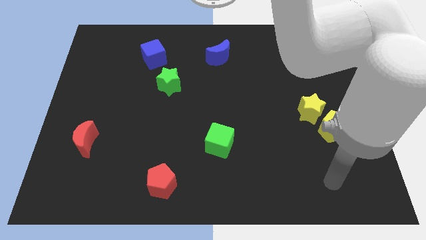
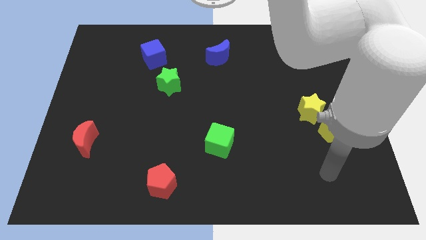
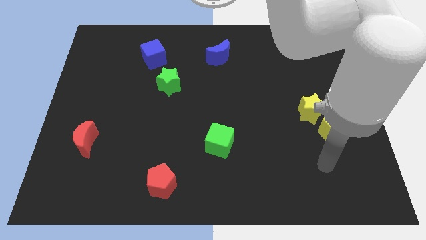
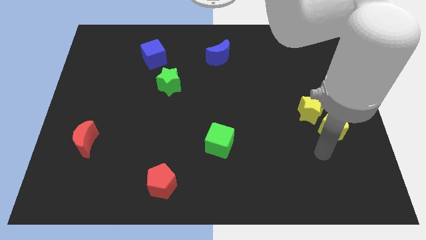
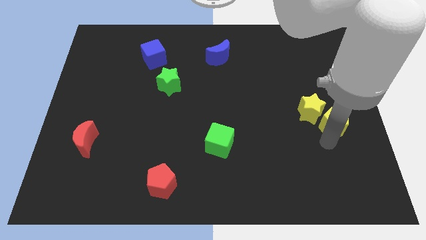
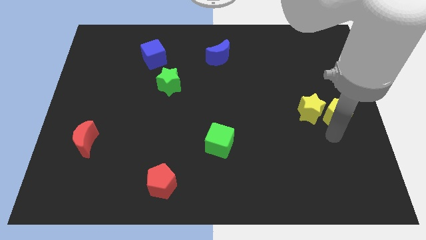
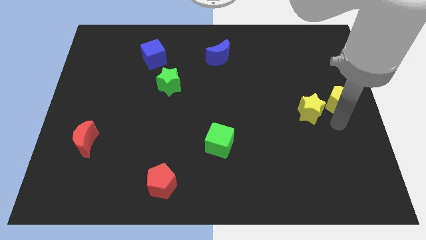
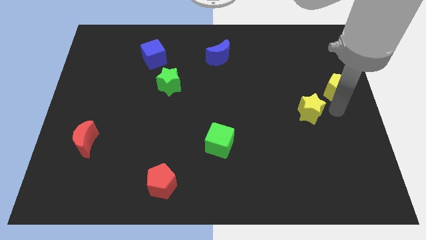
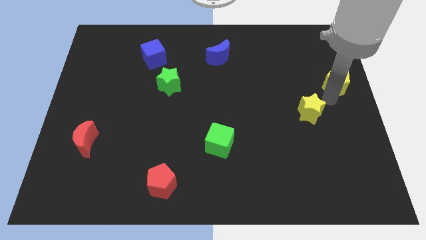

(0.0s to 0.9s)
pull the yellow star apart from the yellow pentagon

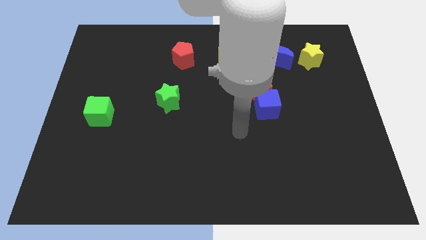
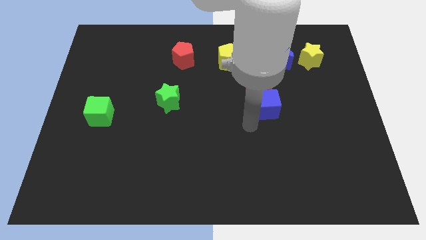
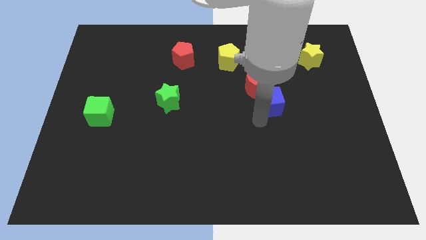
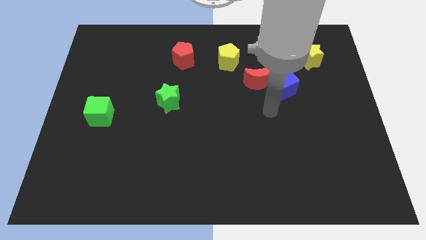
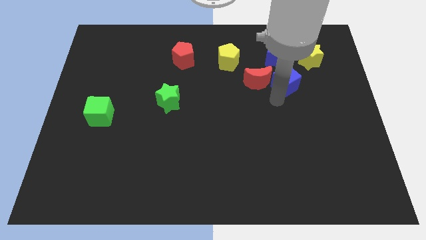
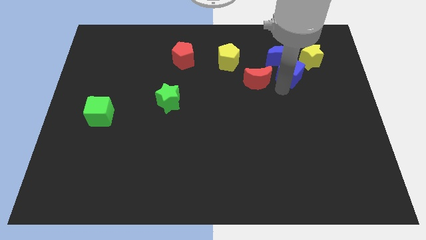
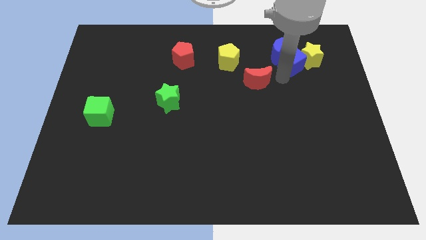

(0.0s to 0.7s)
separate the red moon from the blue cube

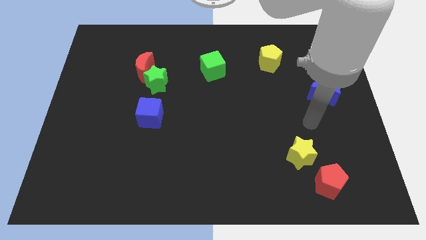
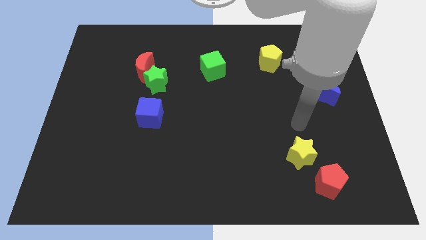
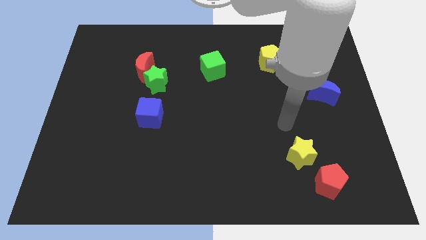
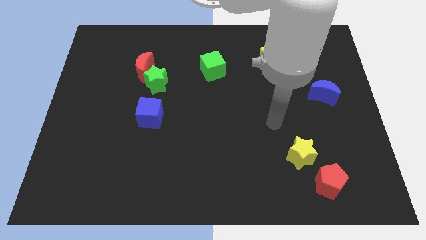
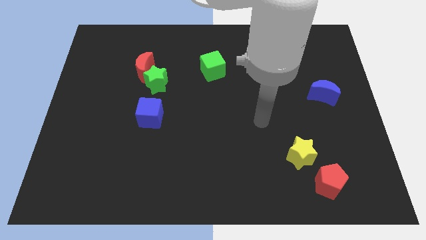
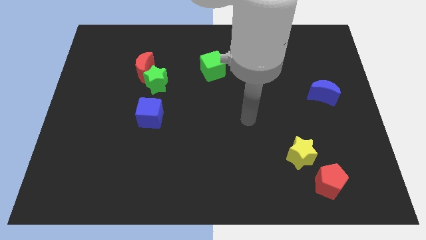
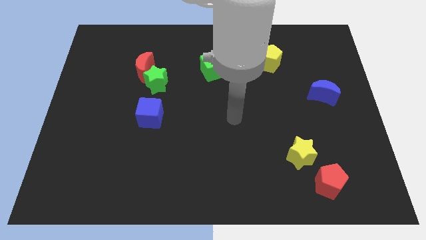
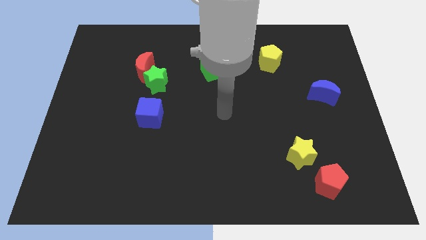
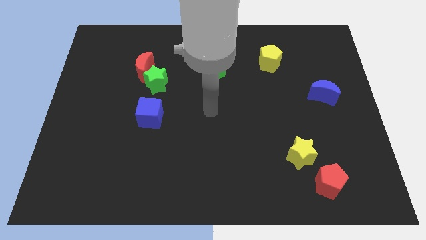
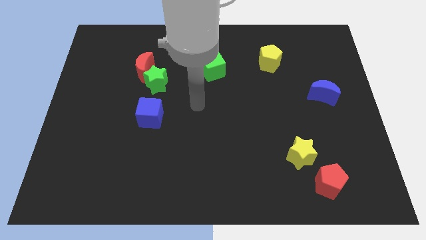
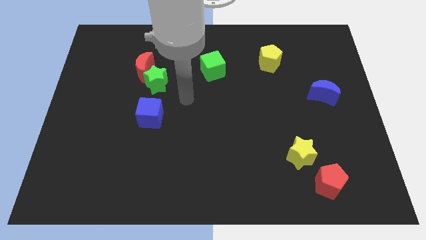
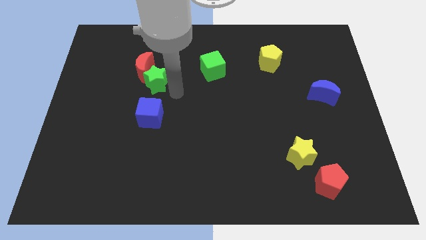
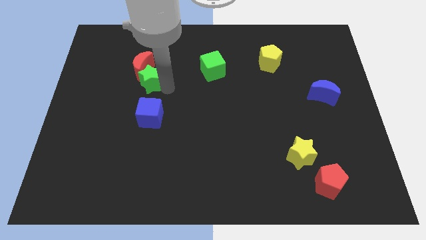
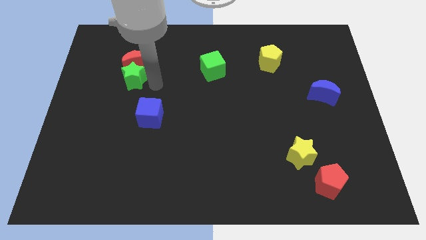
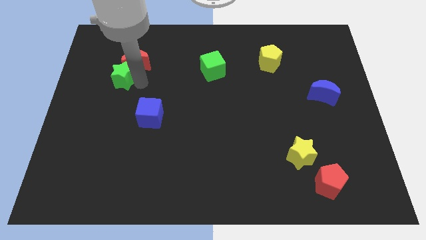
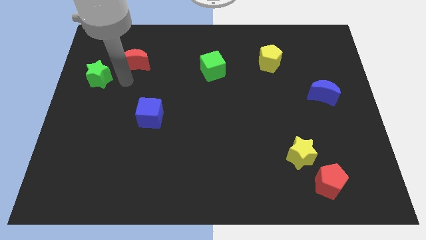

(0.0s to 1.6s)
separate the red moon from the green star

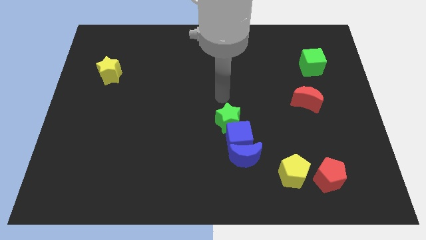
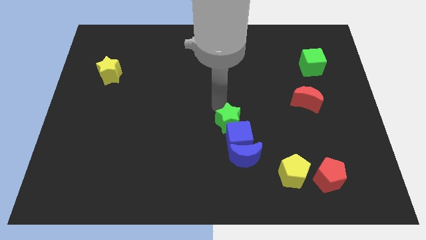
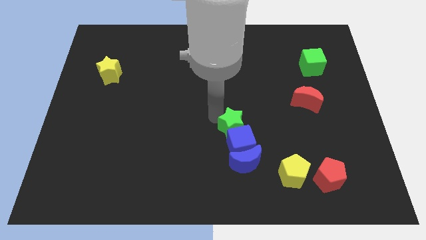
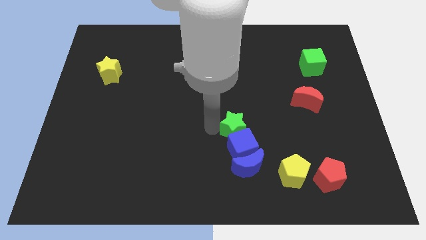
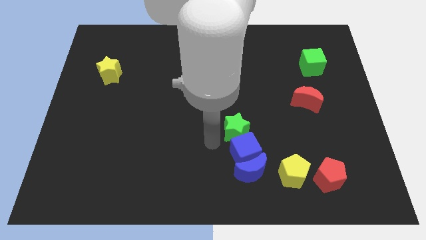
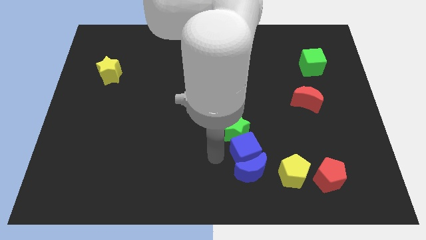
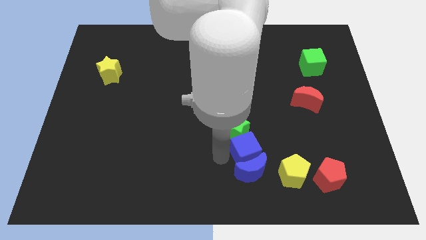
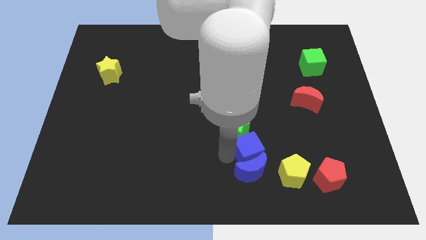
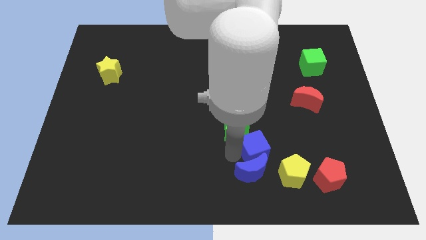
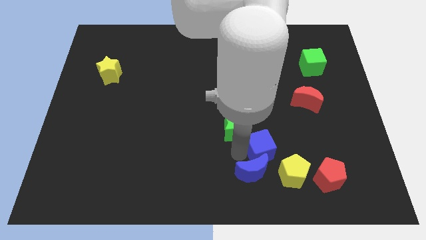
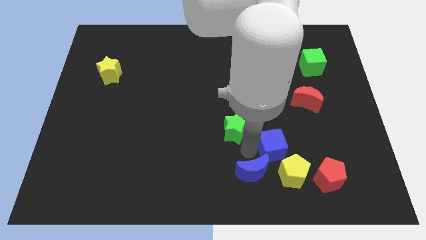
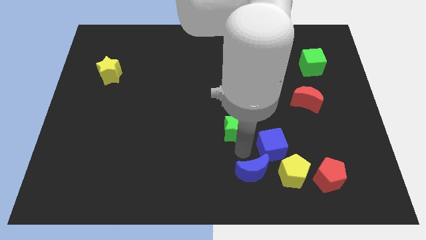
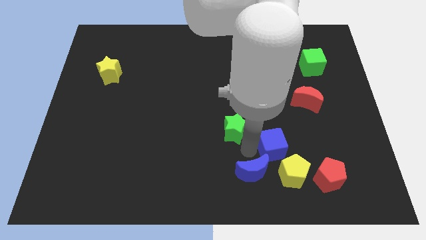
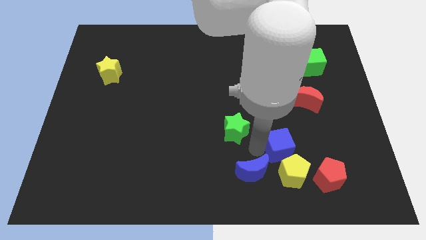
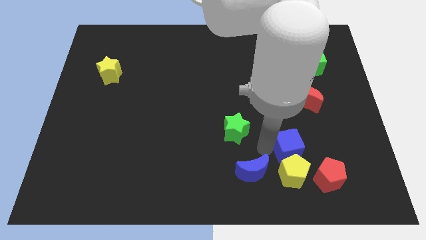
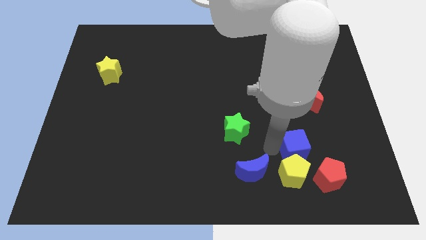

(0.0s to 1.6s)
separate the blue cube from the blue moon and green star

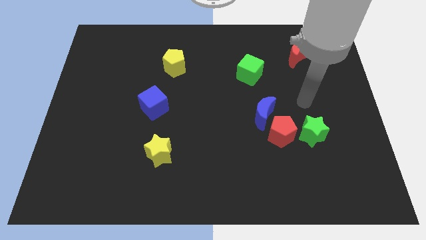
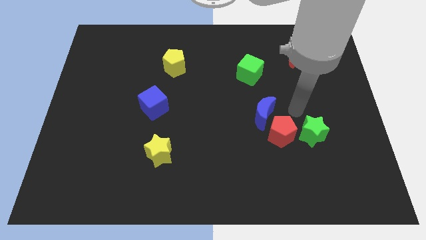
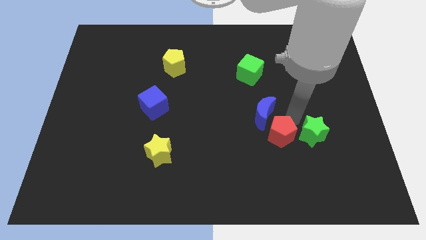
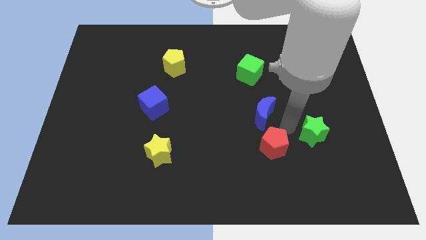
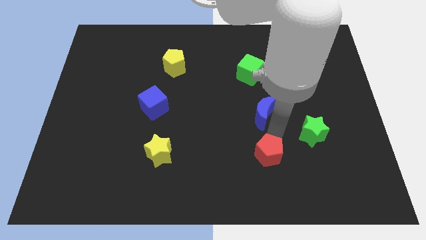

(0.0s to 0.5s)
move the blue moon away from the red pentagon

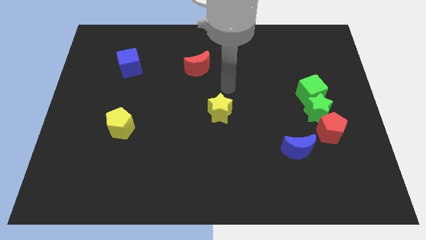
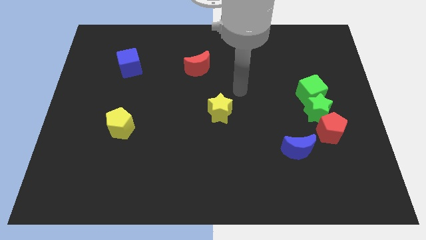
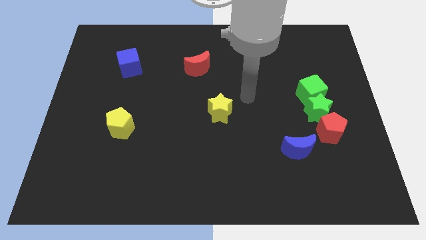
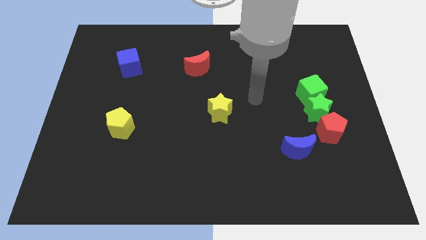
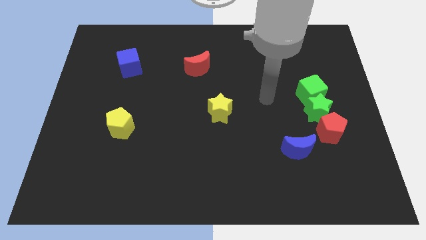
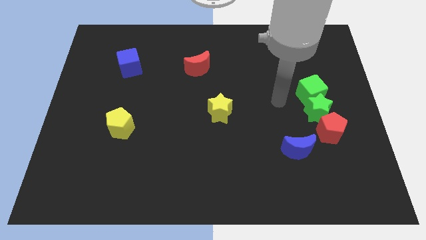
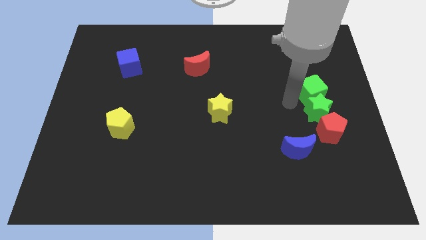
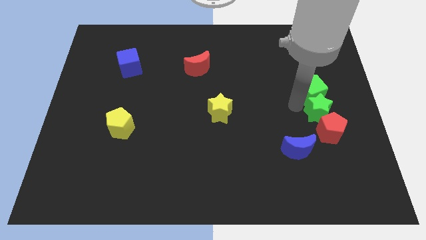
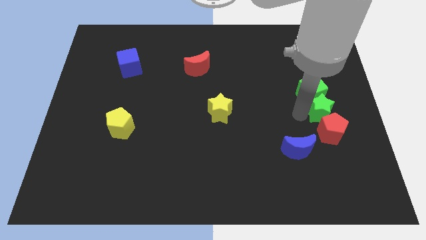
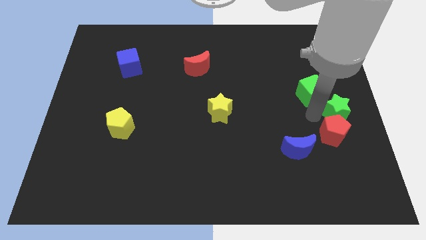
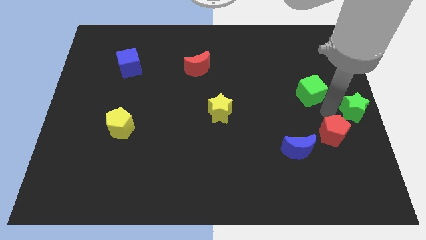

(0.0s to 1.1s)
move the green cube away from the green star

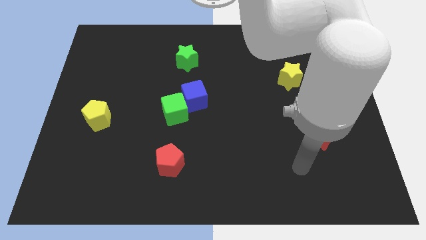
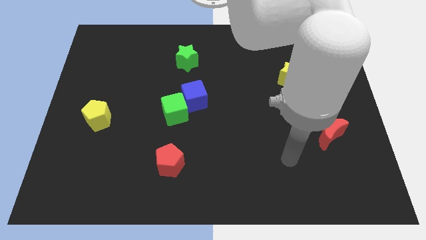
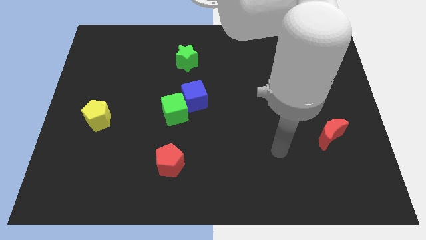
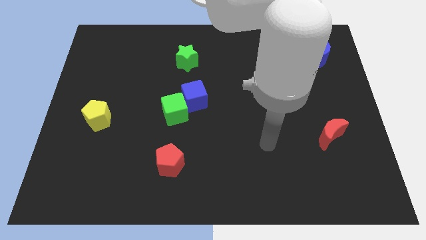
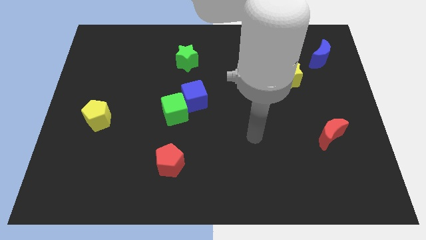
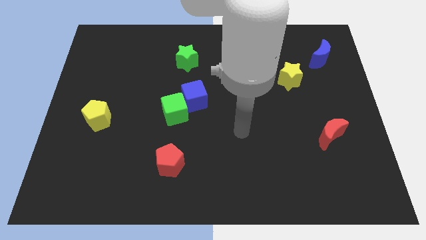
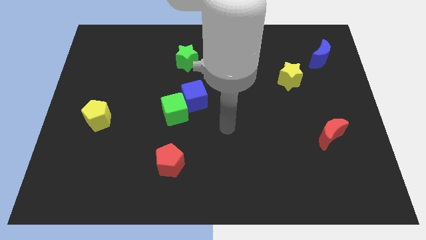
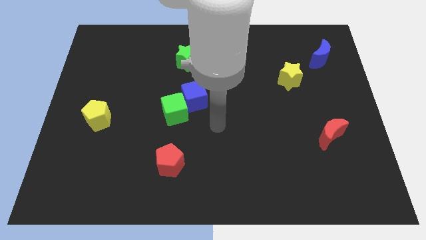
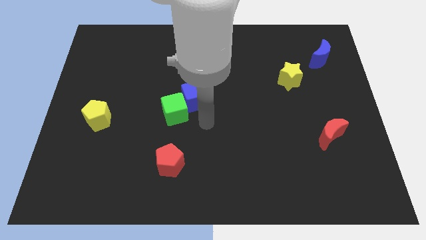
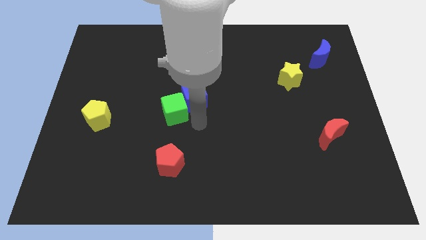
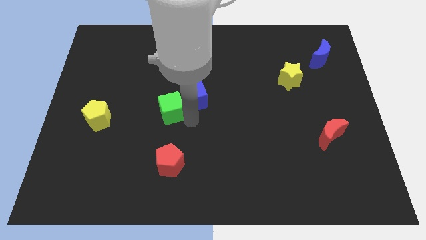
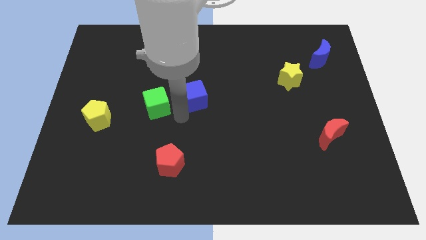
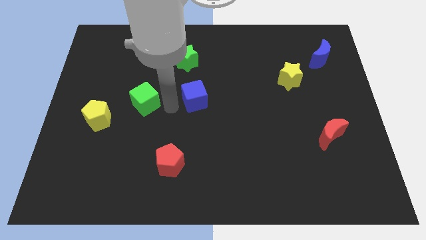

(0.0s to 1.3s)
move the blue cube away from the green cube

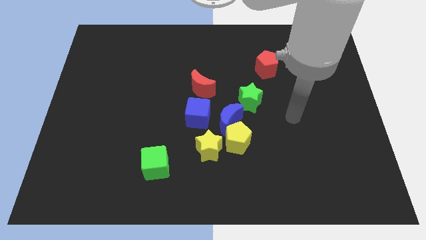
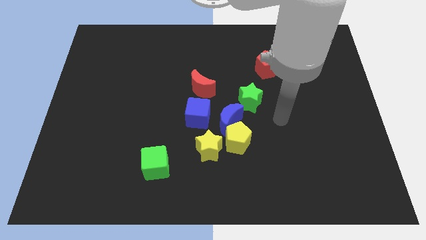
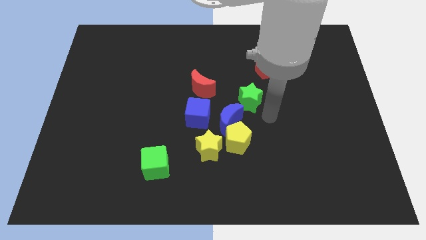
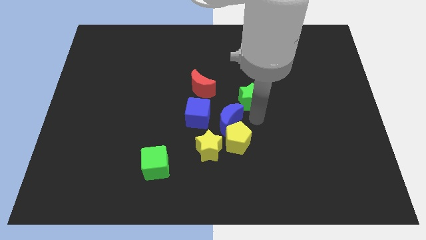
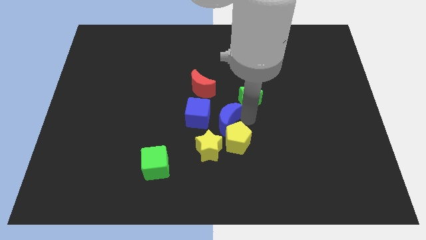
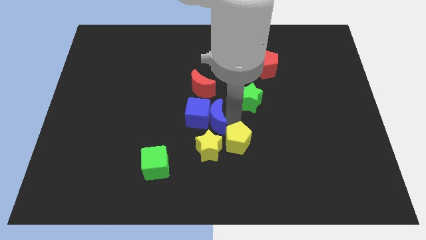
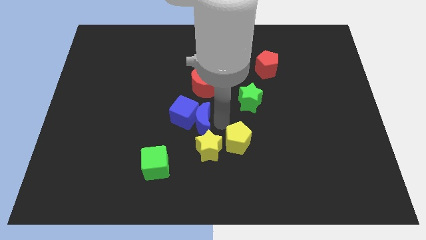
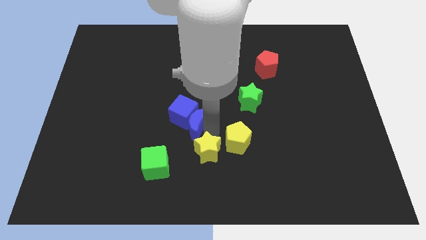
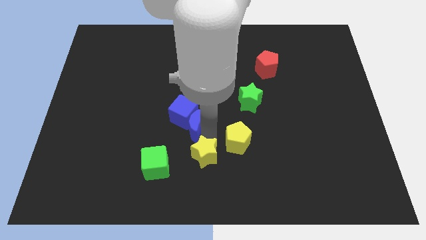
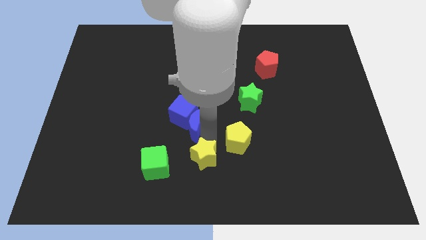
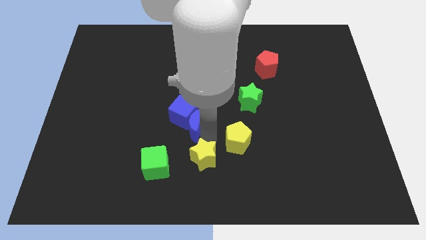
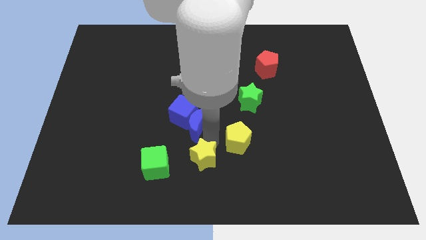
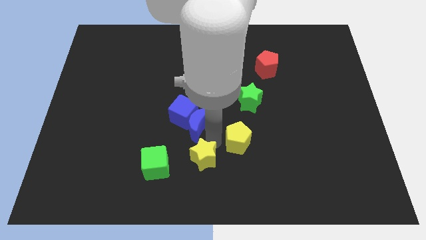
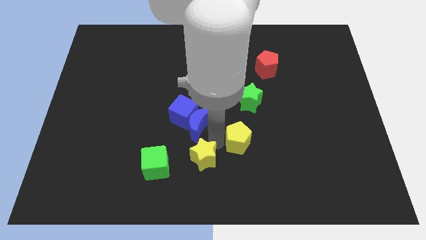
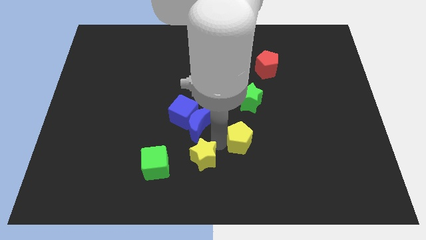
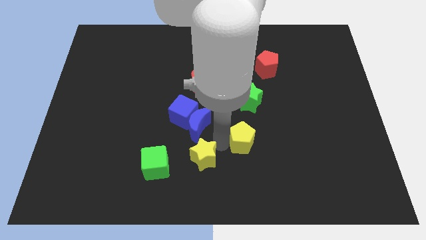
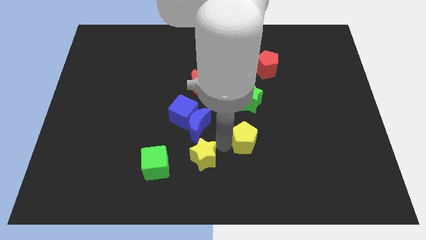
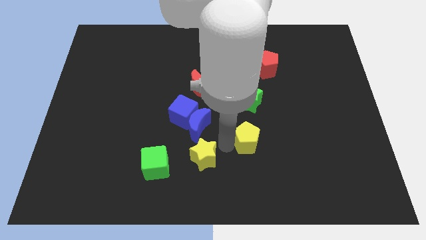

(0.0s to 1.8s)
move the yellow pentagon away from the blue moon and yellow star
